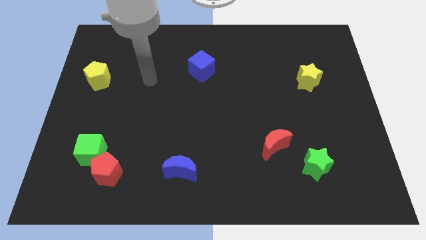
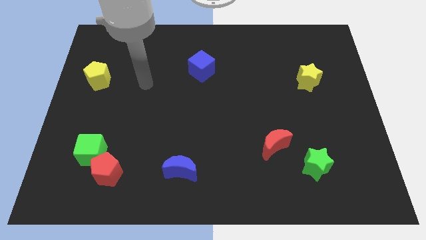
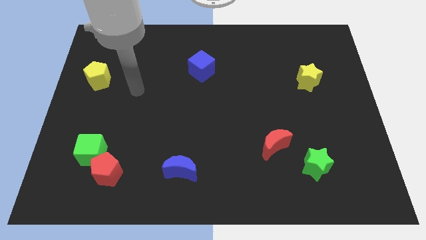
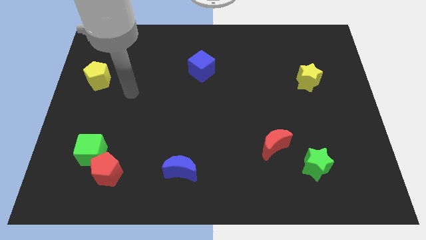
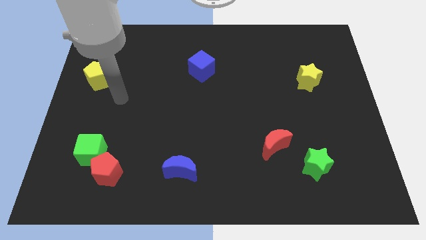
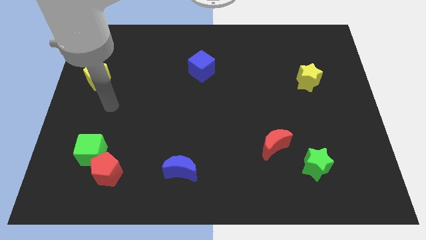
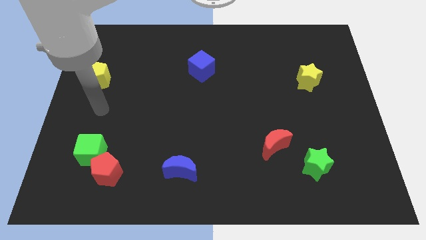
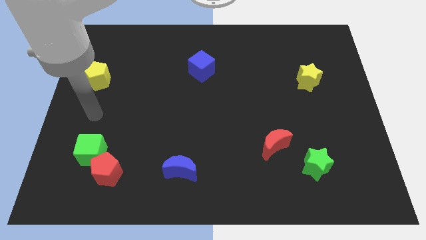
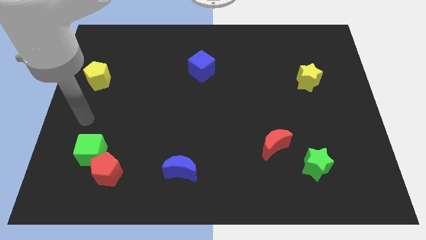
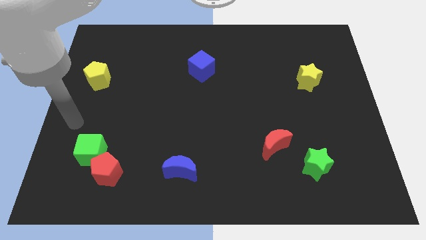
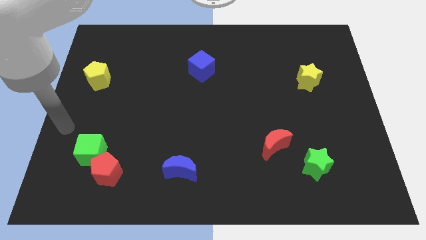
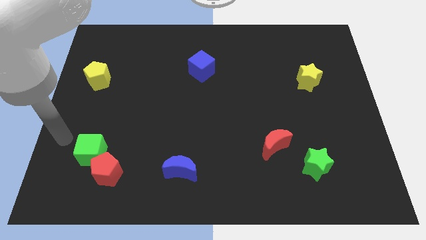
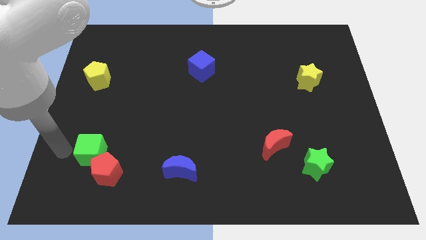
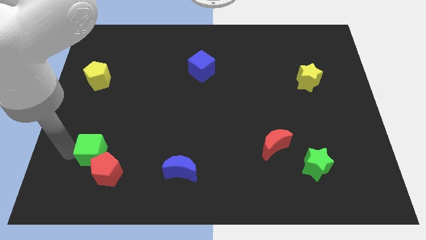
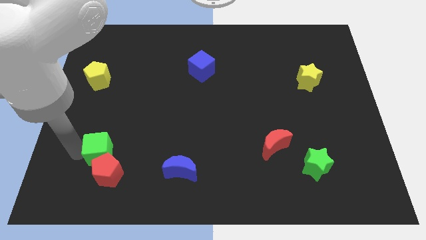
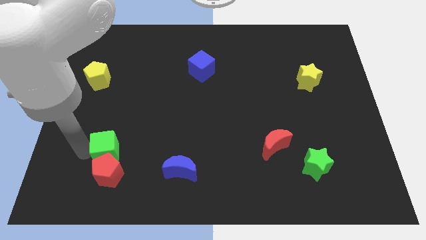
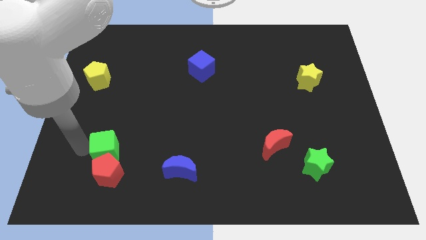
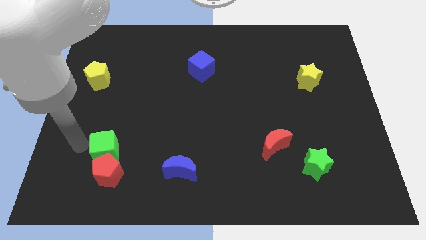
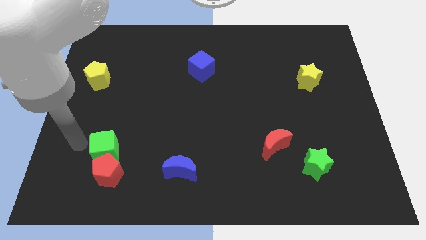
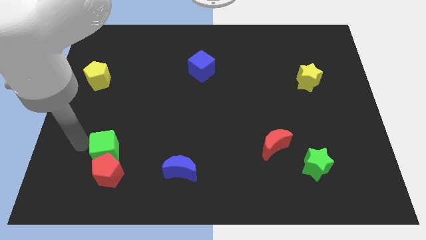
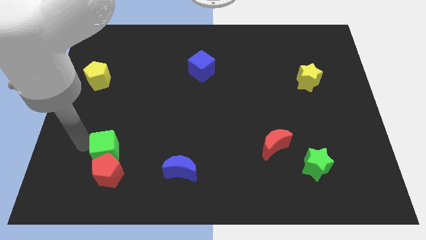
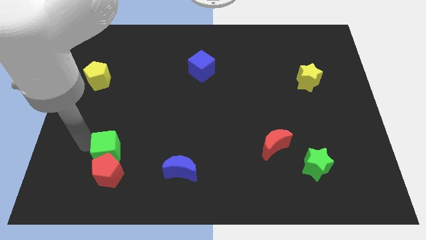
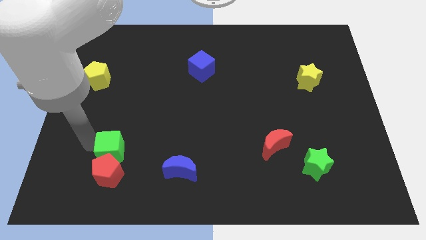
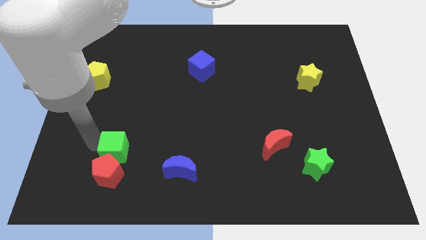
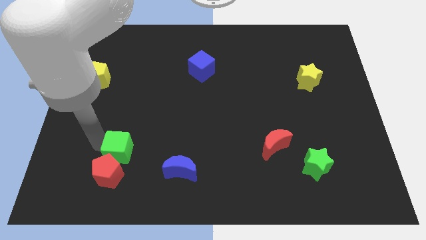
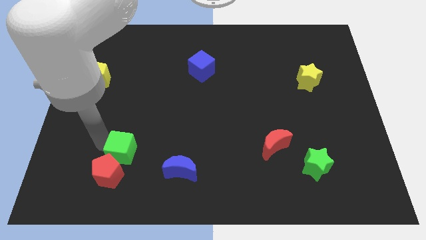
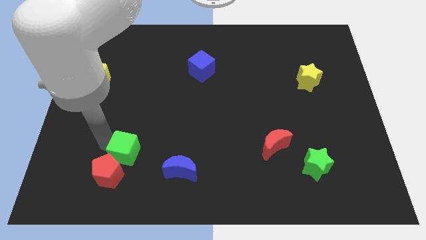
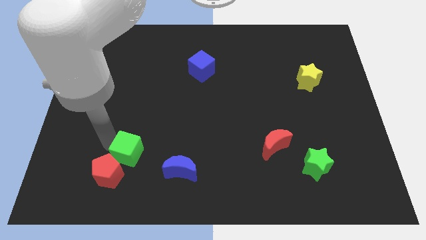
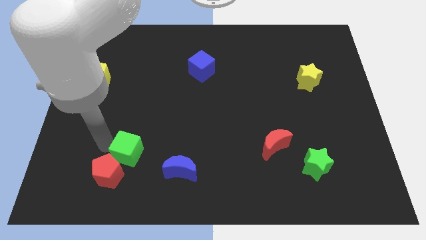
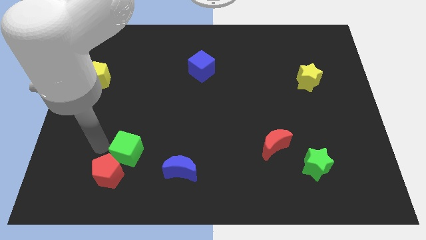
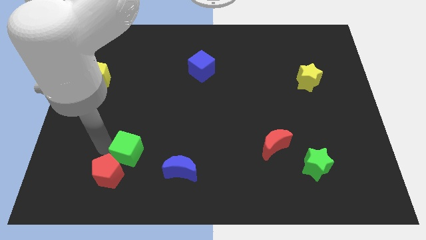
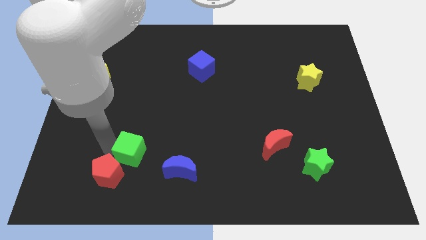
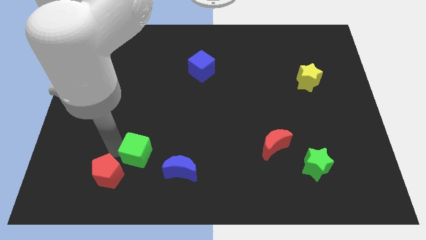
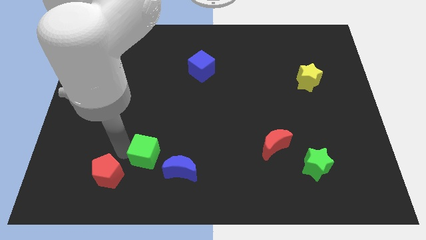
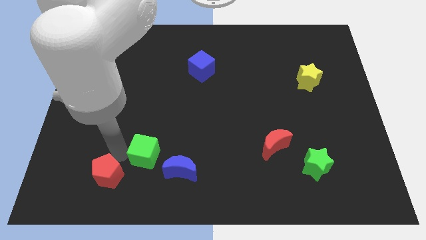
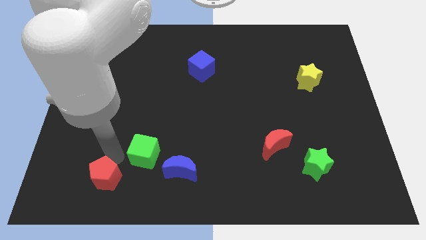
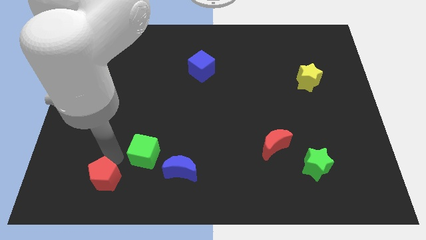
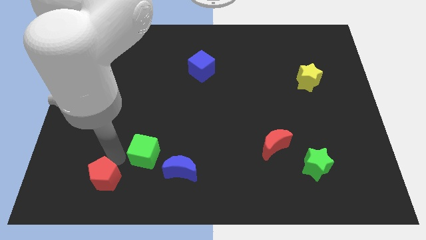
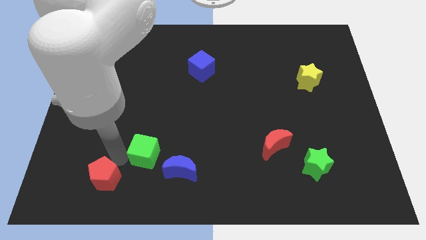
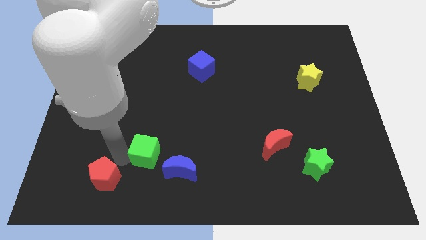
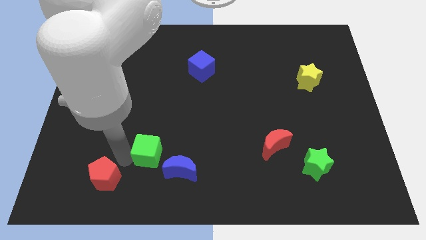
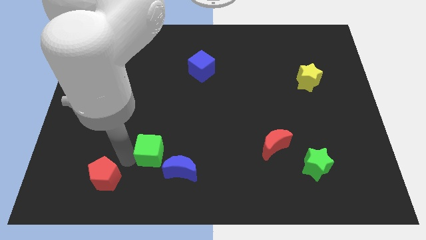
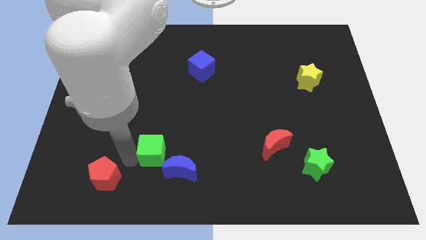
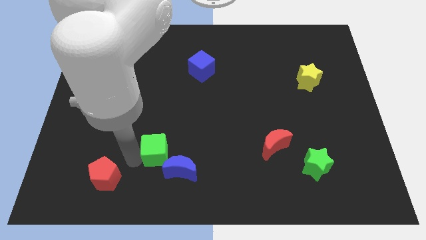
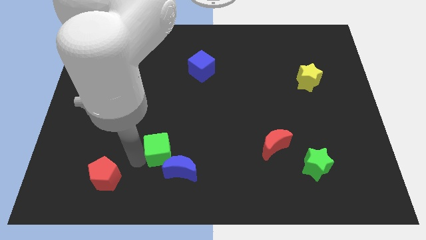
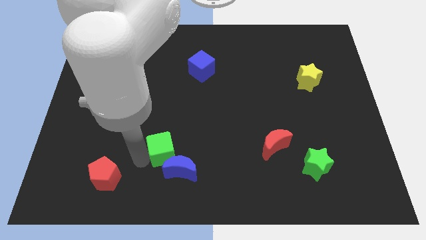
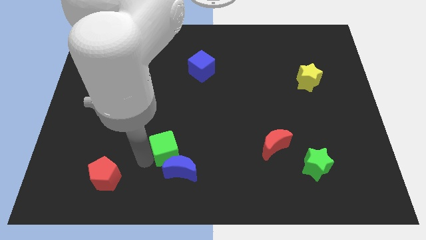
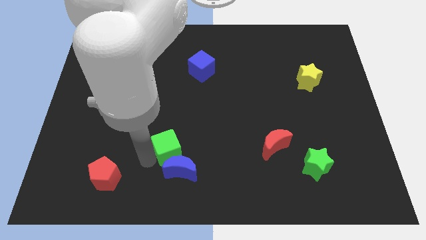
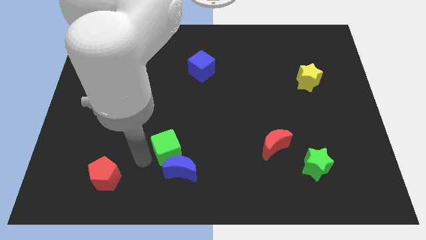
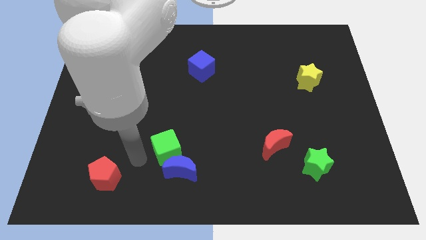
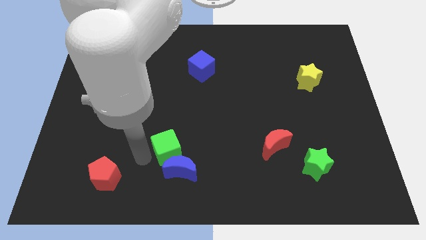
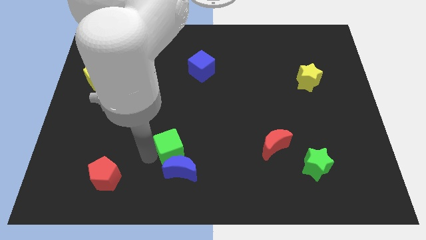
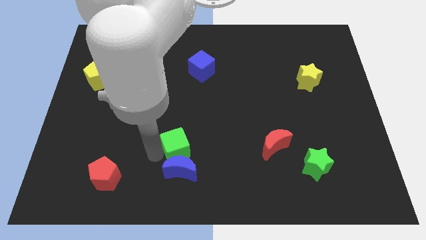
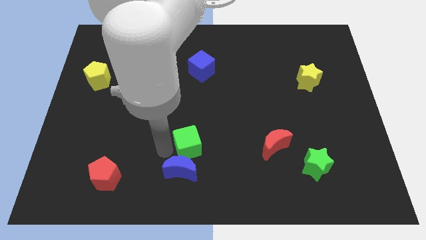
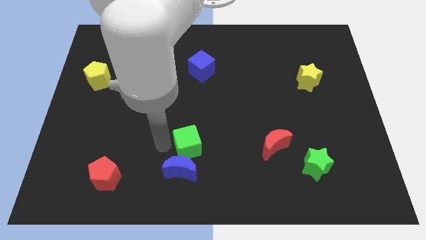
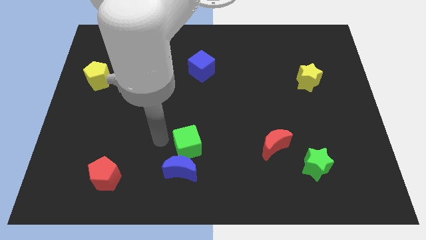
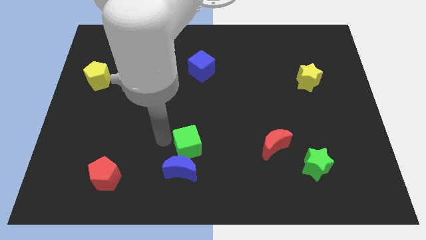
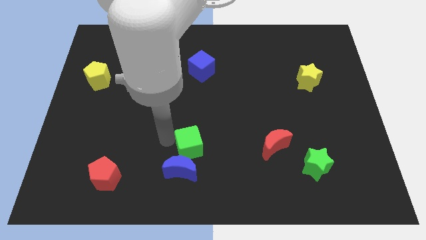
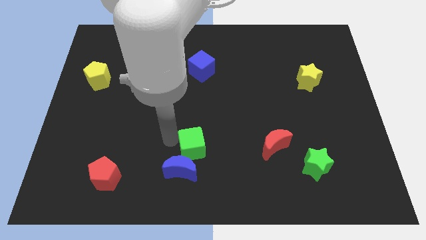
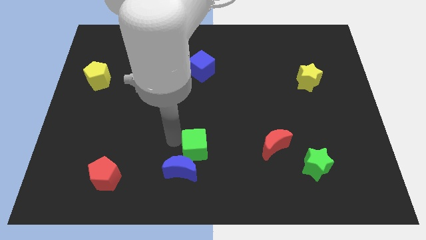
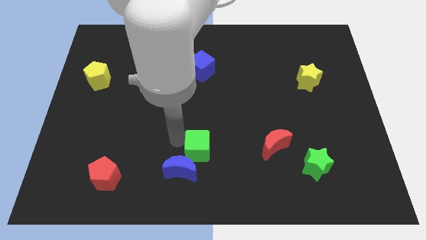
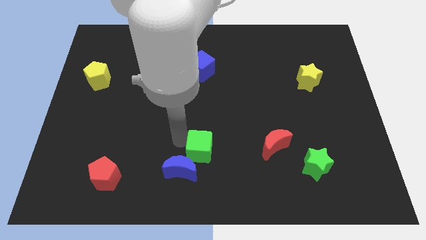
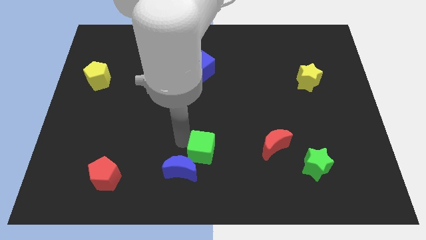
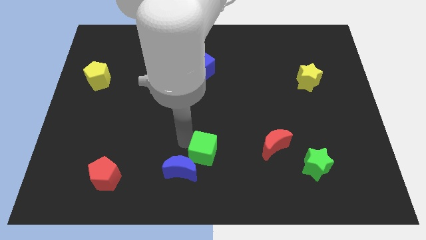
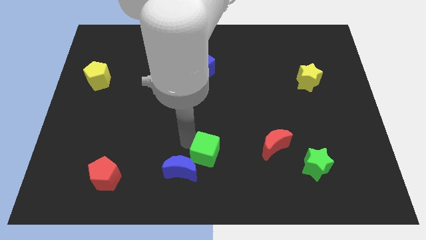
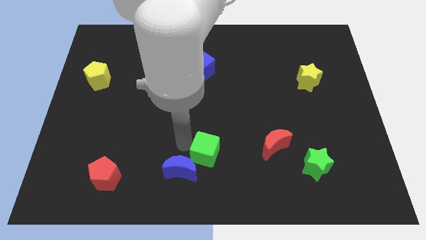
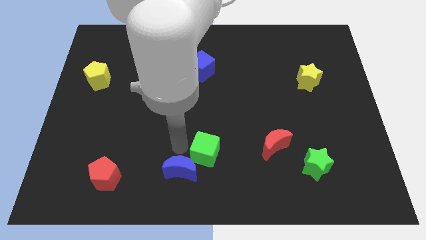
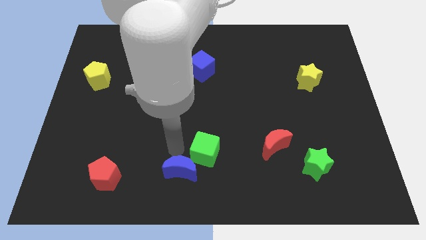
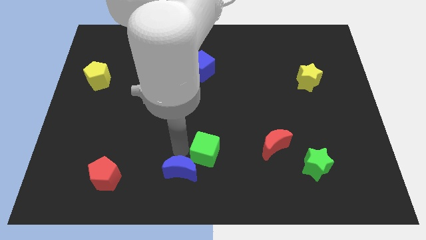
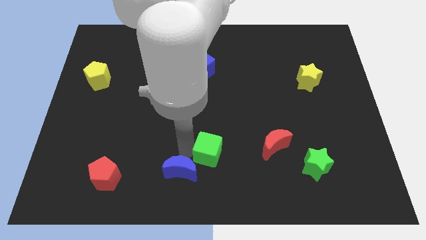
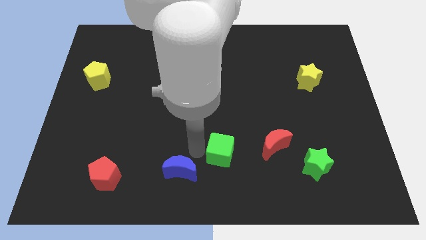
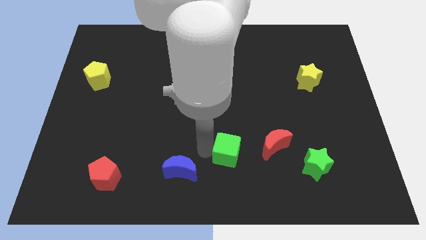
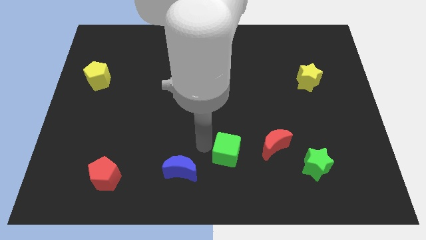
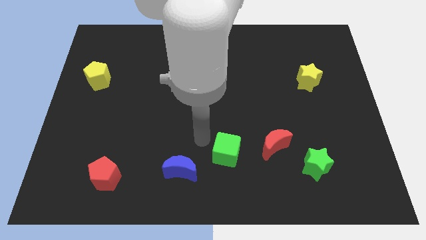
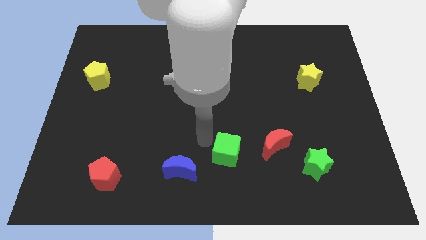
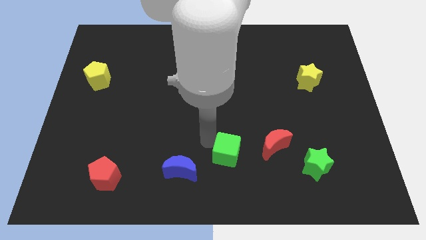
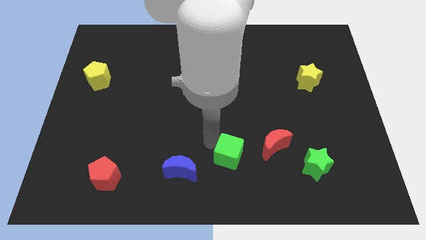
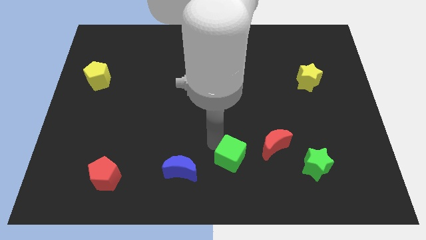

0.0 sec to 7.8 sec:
push the green cube to the bottom left side of the red moon
